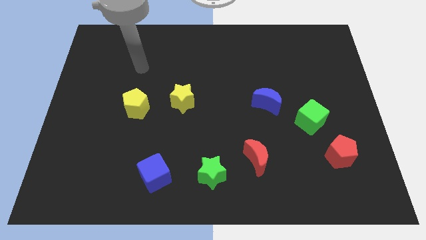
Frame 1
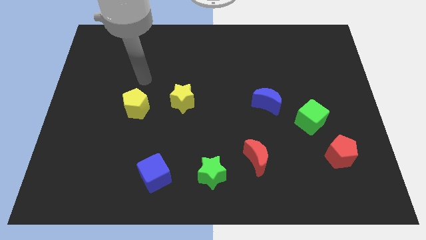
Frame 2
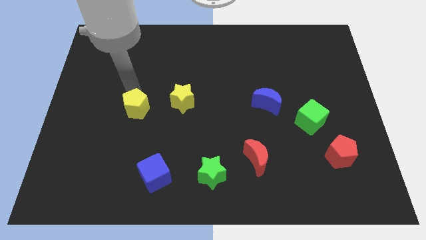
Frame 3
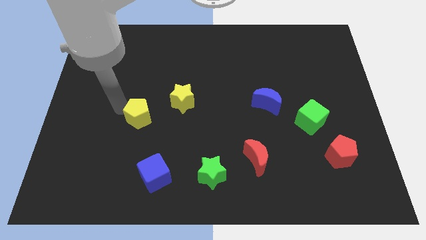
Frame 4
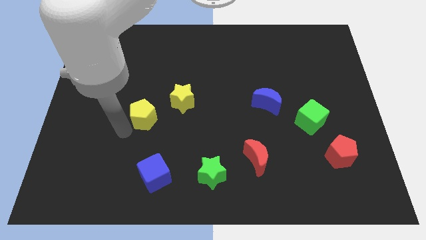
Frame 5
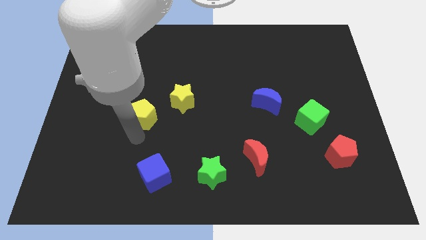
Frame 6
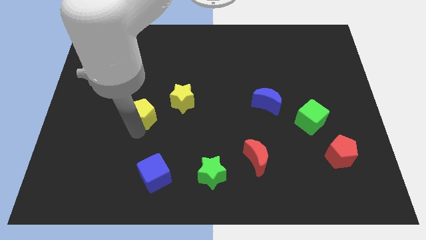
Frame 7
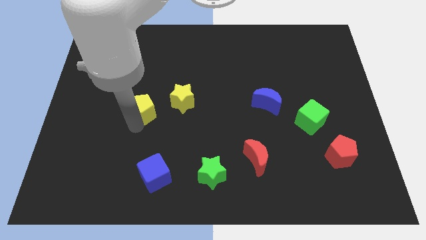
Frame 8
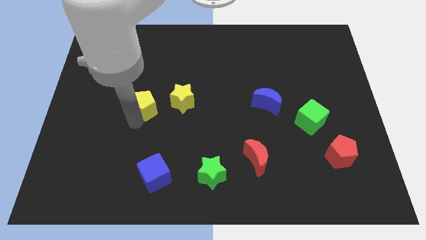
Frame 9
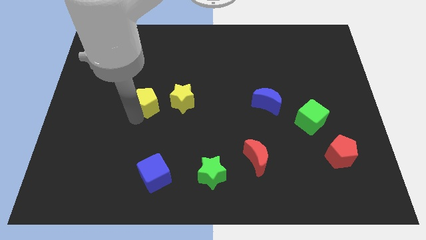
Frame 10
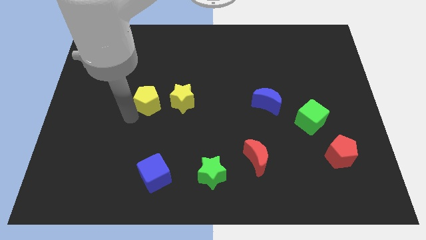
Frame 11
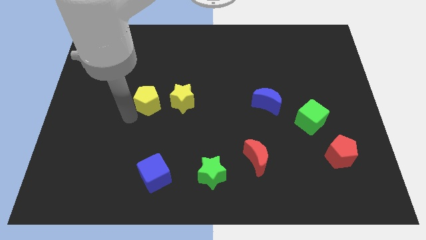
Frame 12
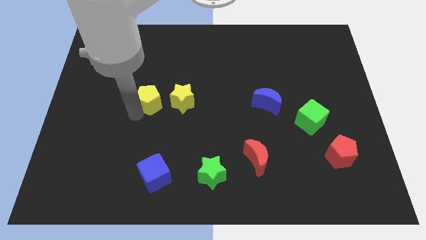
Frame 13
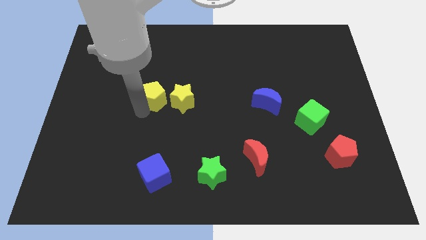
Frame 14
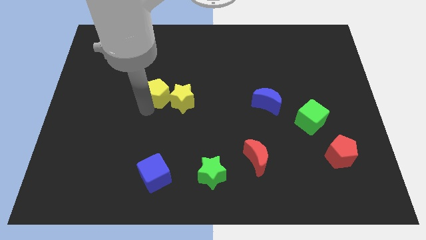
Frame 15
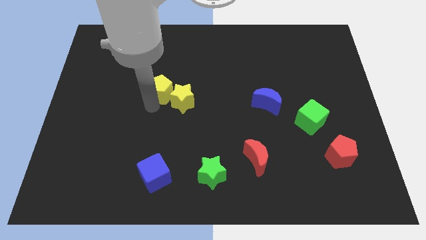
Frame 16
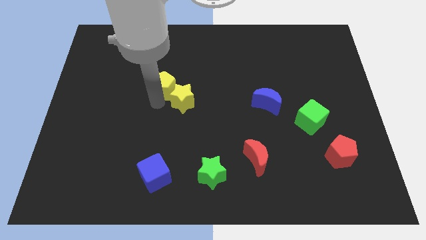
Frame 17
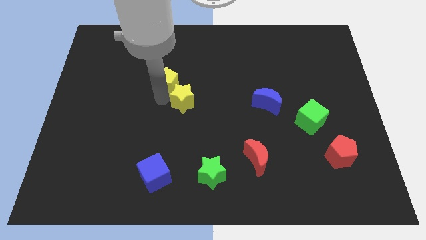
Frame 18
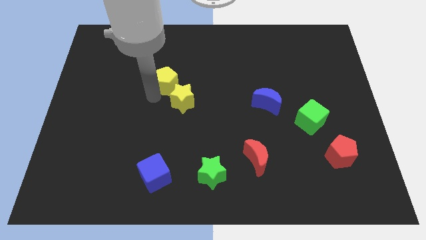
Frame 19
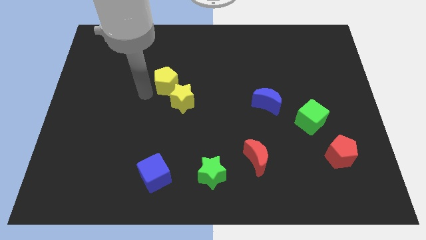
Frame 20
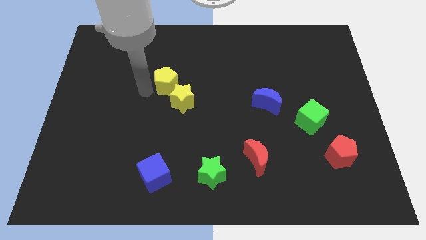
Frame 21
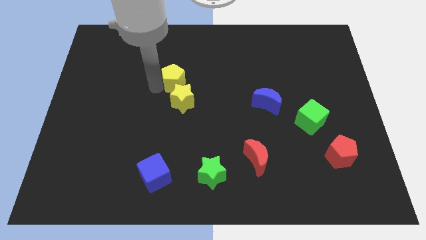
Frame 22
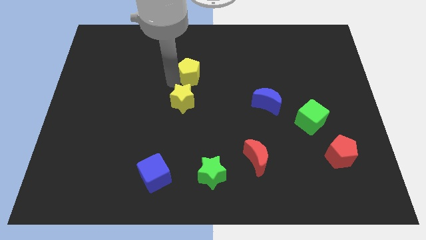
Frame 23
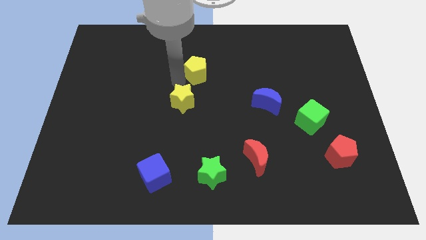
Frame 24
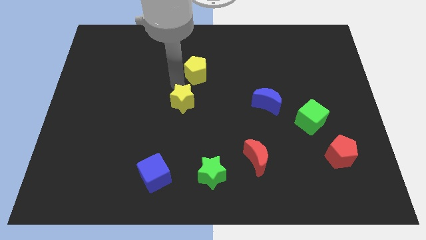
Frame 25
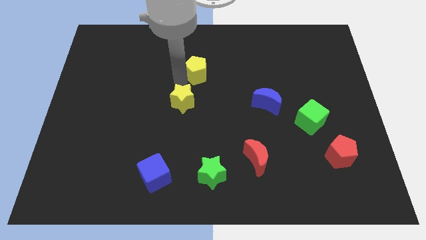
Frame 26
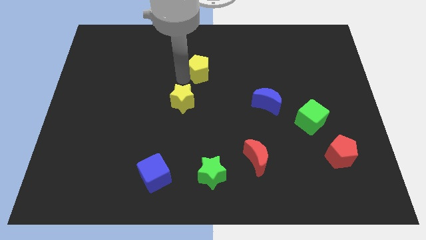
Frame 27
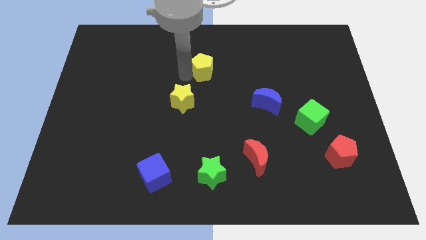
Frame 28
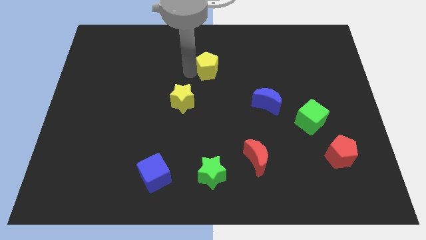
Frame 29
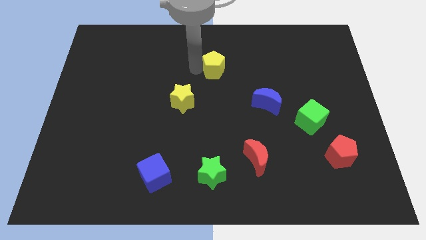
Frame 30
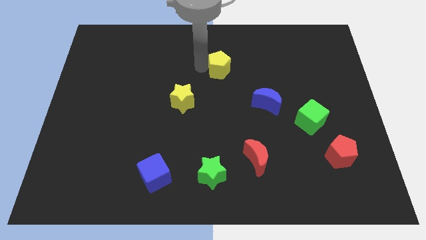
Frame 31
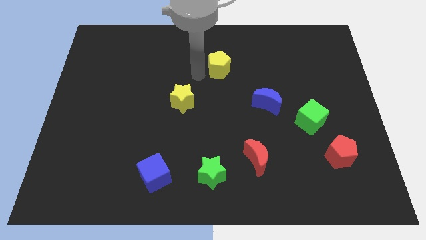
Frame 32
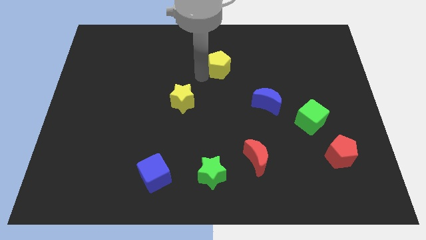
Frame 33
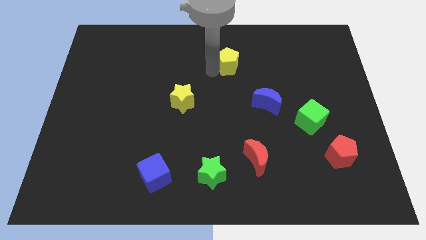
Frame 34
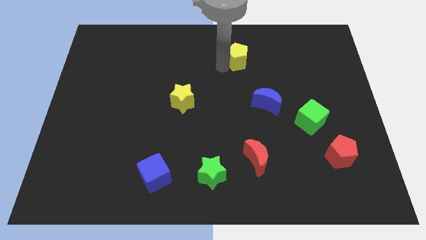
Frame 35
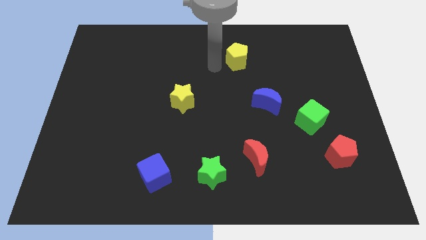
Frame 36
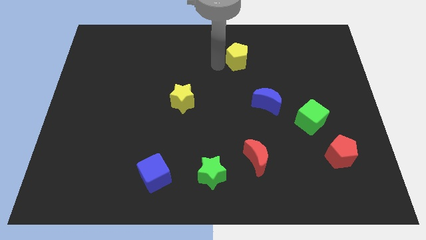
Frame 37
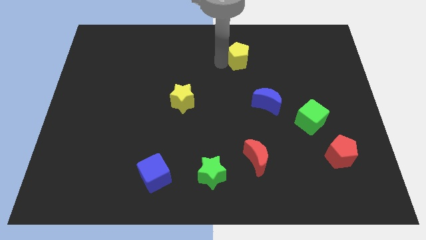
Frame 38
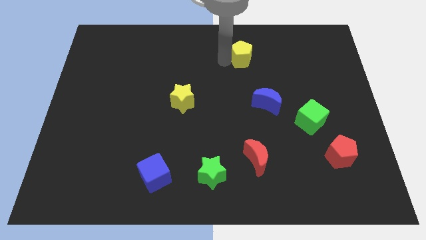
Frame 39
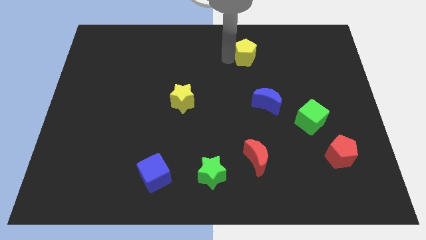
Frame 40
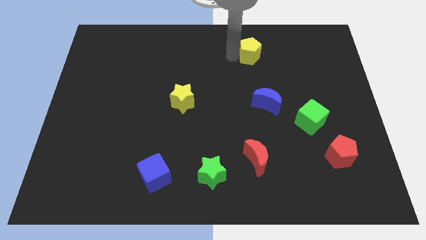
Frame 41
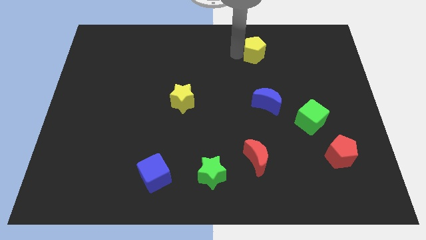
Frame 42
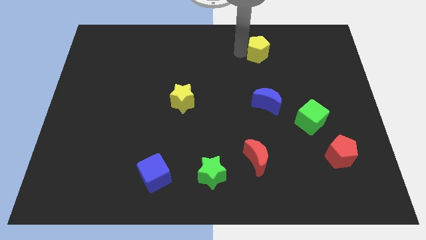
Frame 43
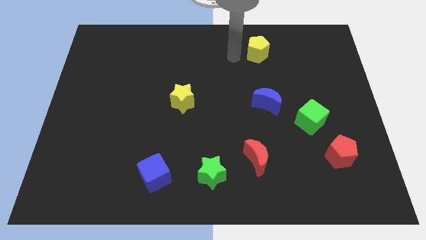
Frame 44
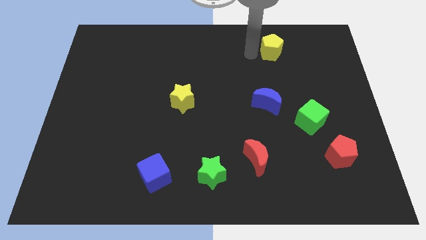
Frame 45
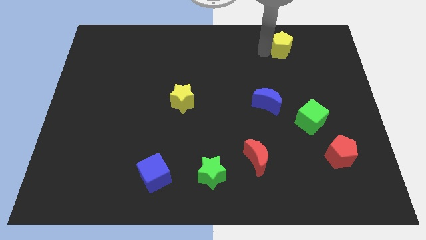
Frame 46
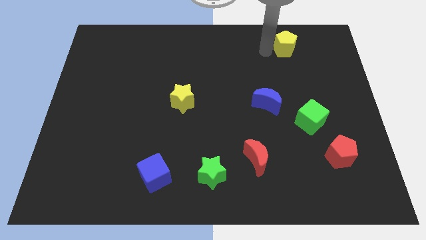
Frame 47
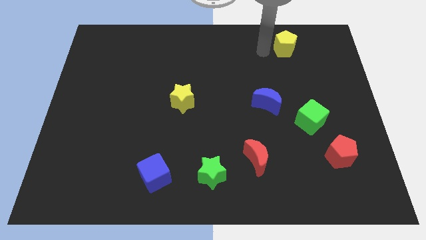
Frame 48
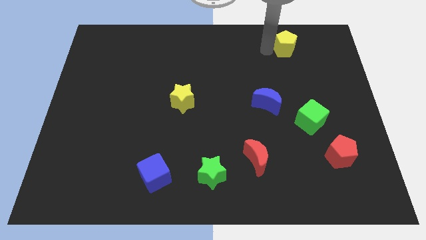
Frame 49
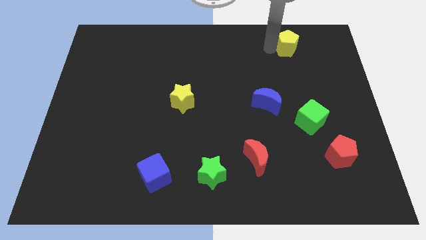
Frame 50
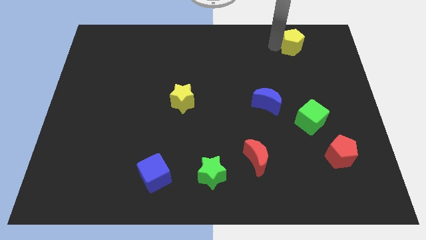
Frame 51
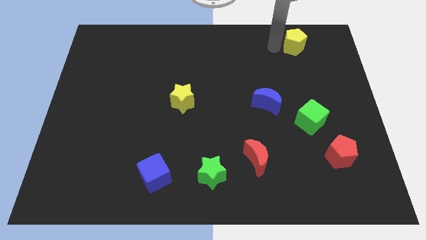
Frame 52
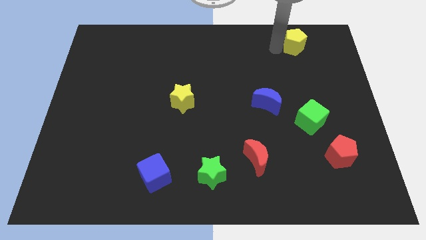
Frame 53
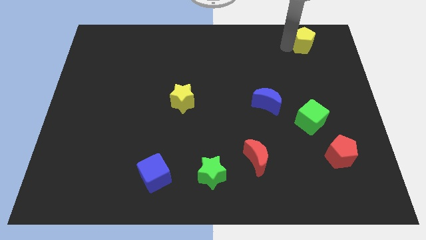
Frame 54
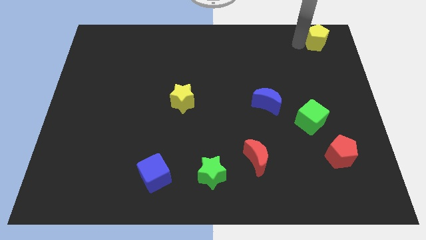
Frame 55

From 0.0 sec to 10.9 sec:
put the yellow pentagon to the top right

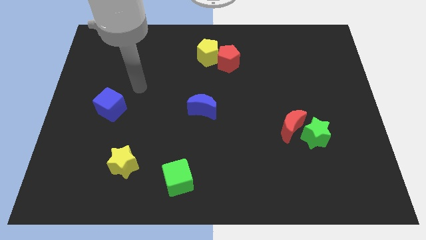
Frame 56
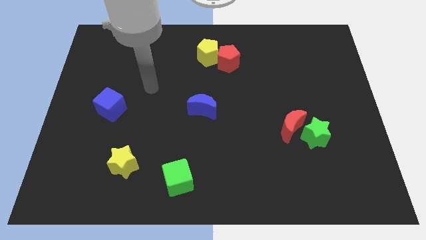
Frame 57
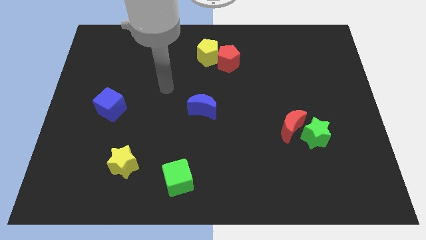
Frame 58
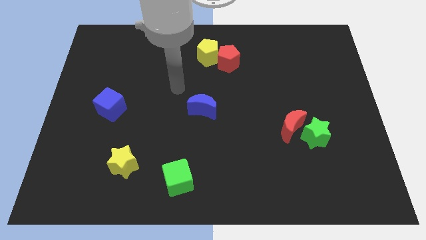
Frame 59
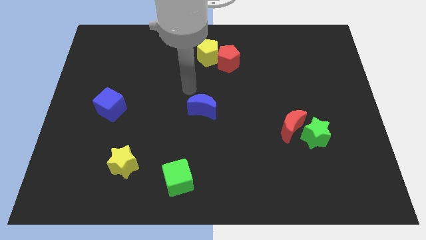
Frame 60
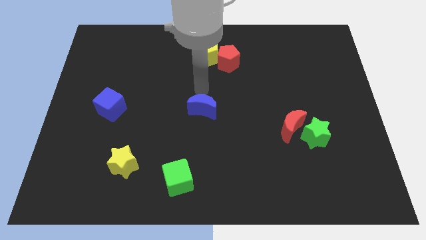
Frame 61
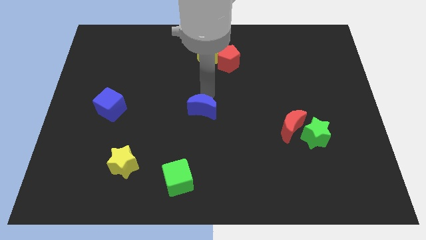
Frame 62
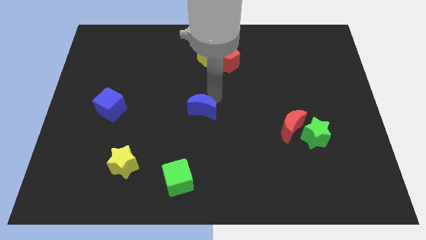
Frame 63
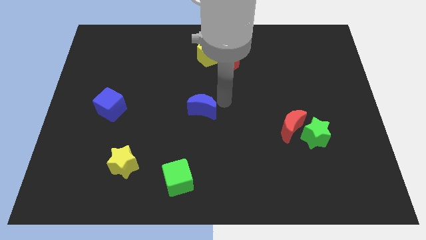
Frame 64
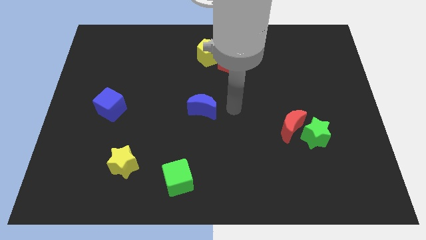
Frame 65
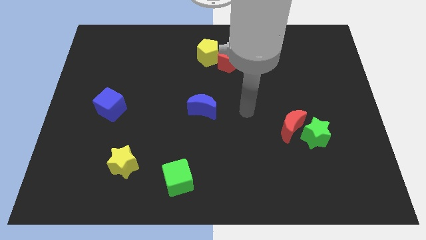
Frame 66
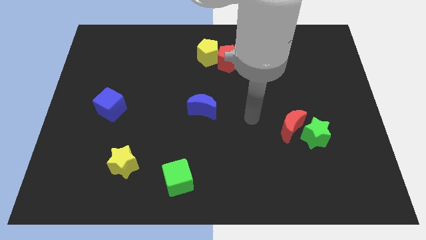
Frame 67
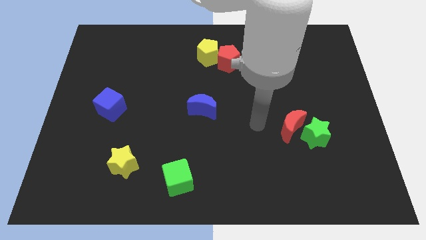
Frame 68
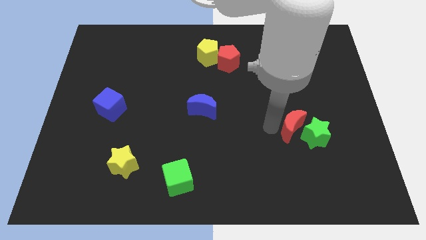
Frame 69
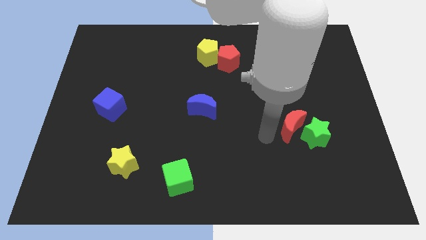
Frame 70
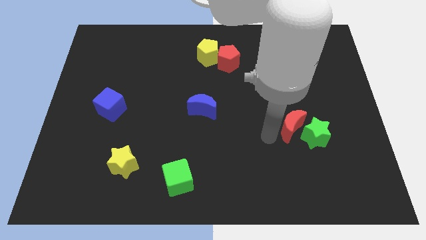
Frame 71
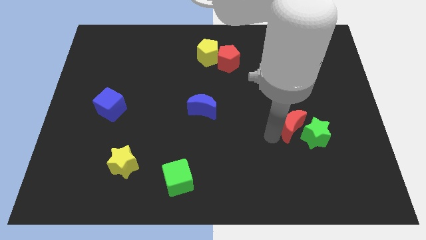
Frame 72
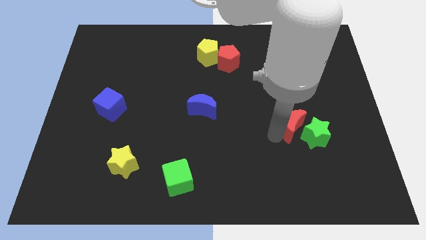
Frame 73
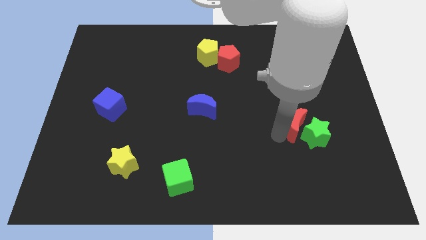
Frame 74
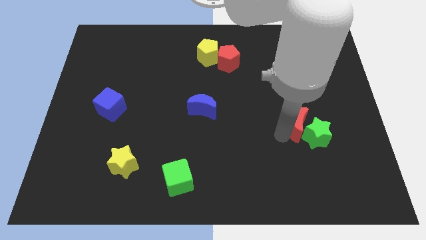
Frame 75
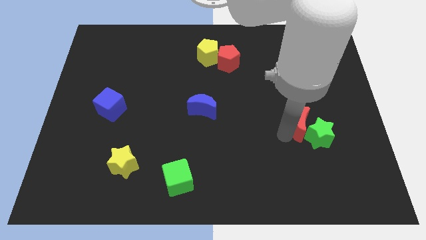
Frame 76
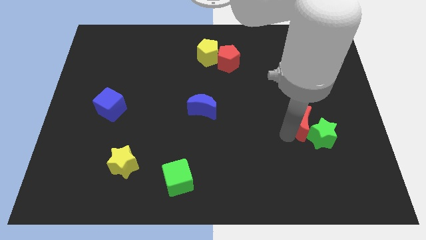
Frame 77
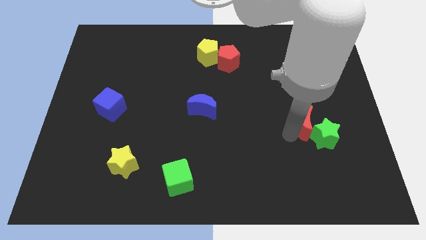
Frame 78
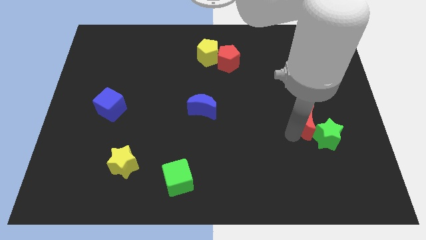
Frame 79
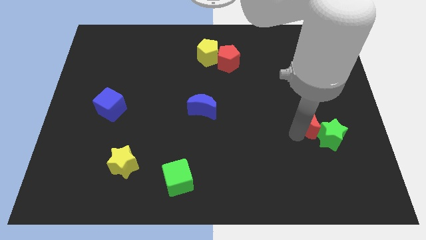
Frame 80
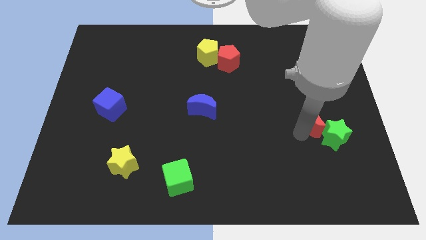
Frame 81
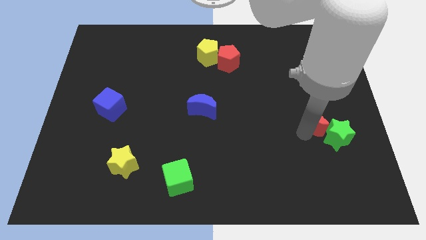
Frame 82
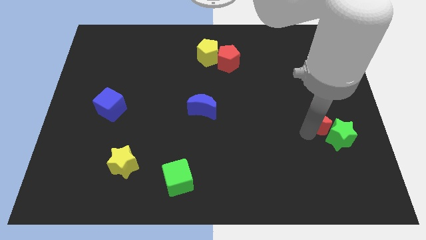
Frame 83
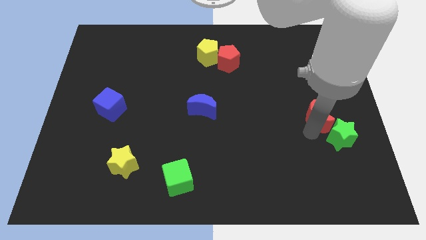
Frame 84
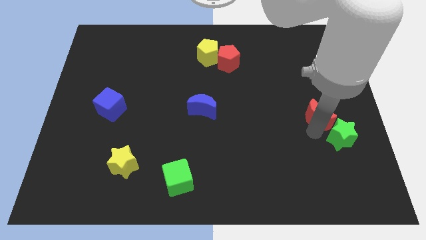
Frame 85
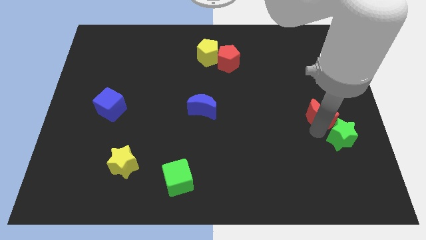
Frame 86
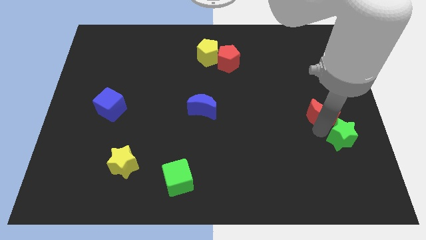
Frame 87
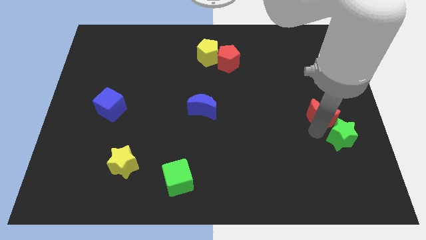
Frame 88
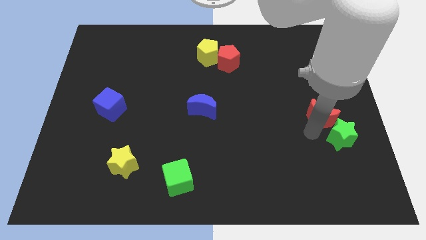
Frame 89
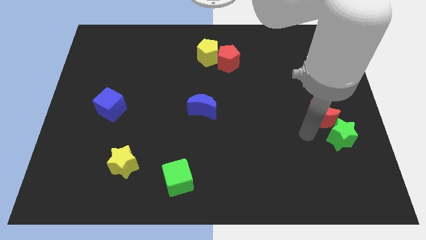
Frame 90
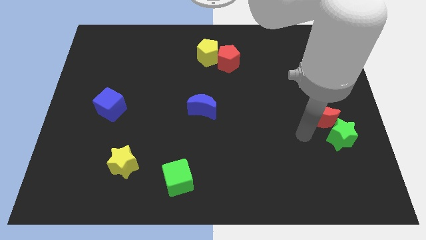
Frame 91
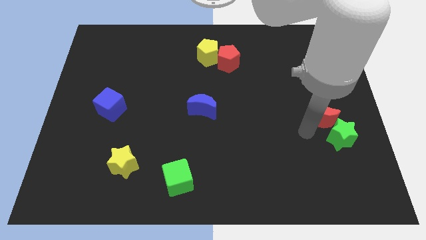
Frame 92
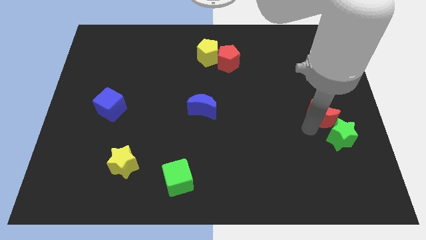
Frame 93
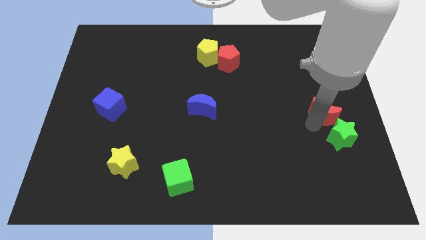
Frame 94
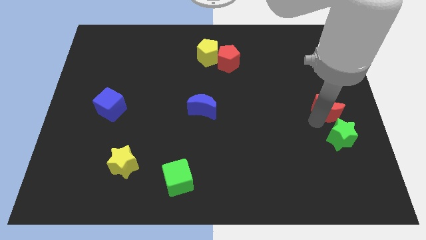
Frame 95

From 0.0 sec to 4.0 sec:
move the red moon to the center right
